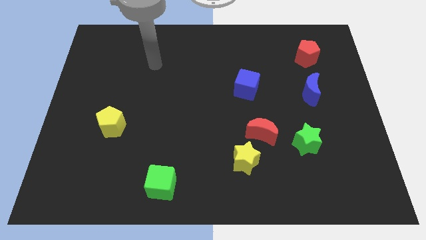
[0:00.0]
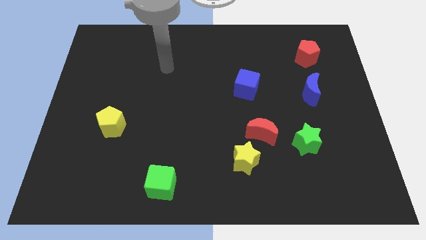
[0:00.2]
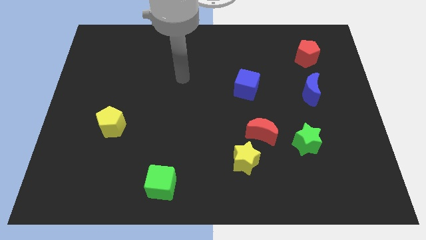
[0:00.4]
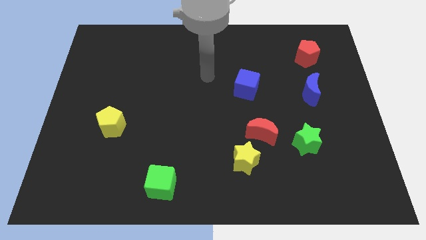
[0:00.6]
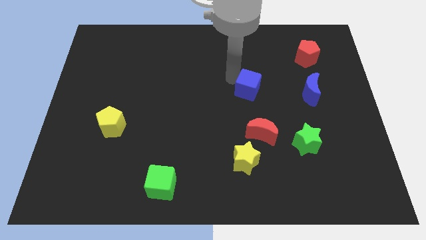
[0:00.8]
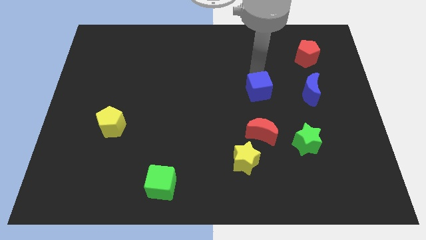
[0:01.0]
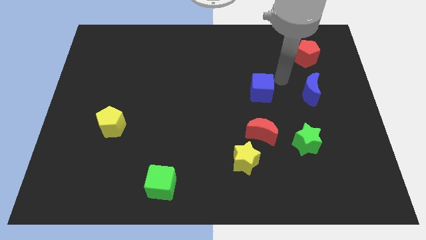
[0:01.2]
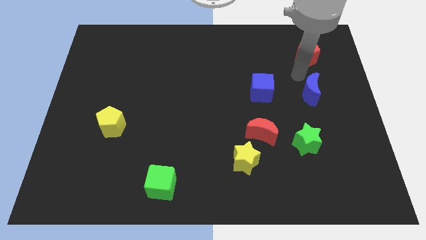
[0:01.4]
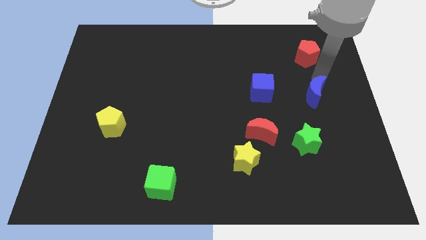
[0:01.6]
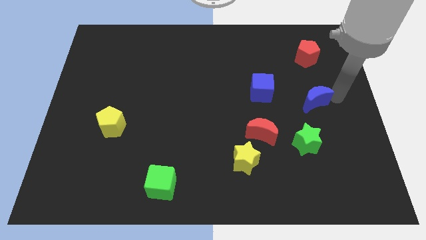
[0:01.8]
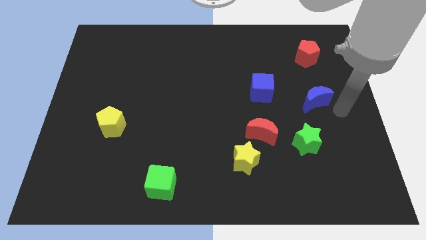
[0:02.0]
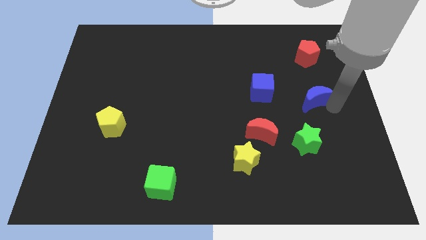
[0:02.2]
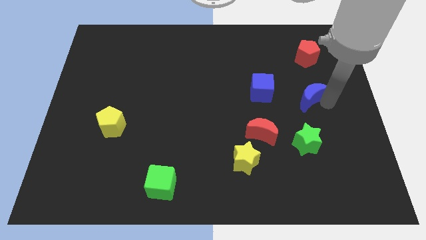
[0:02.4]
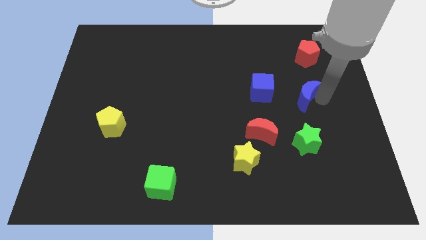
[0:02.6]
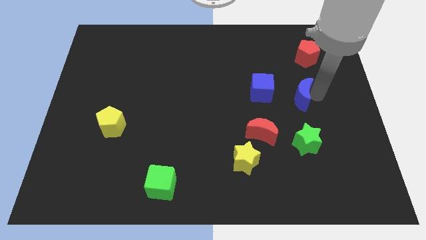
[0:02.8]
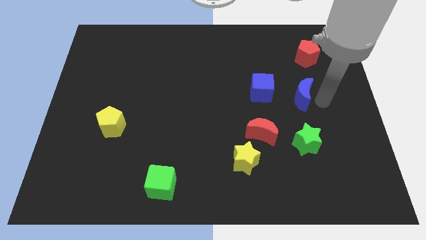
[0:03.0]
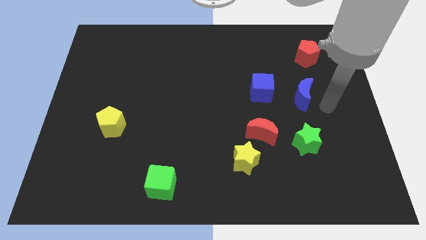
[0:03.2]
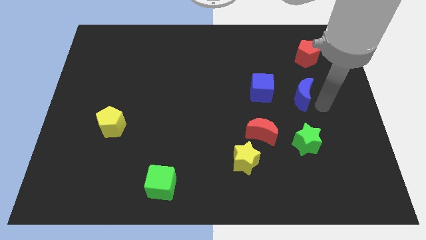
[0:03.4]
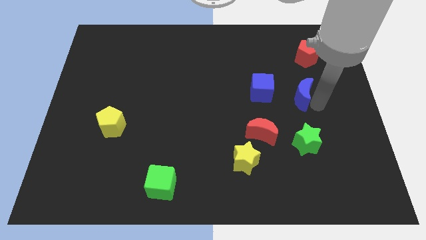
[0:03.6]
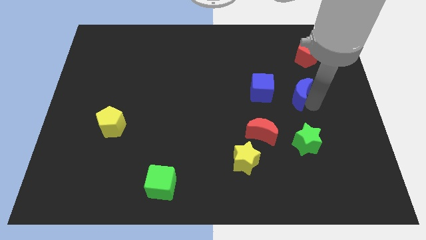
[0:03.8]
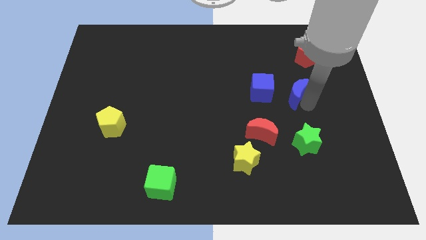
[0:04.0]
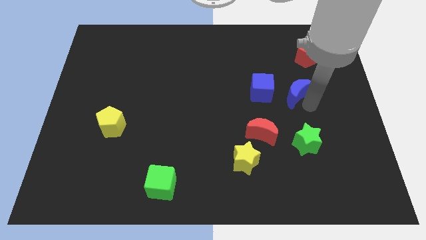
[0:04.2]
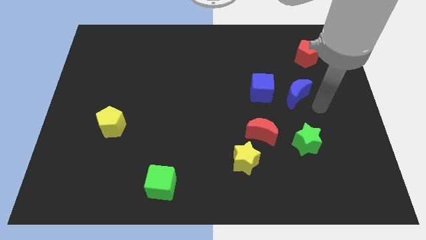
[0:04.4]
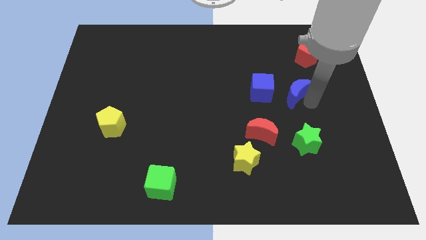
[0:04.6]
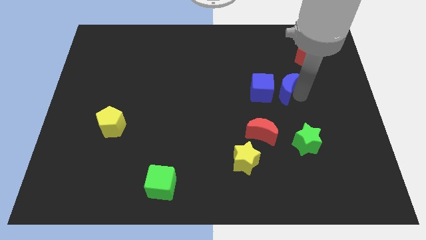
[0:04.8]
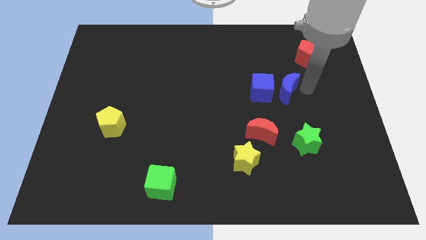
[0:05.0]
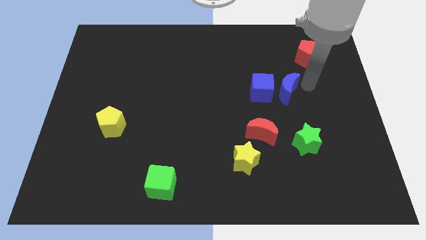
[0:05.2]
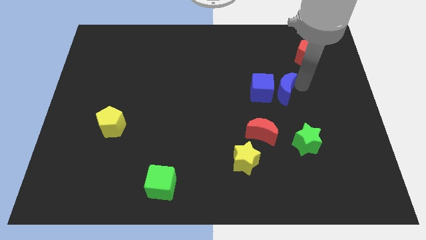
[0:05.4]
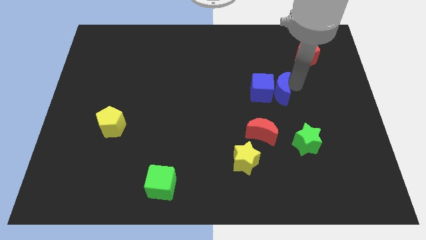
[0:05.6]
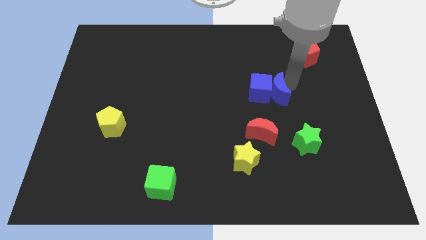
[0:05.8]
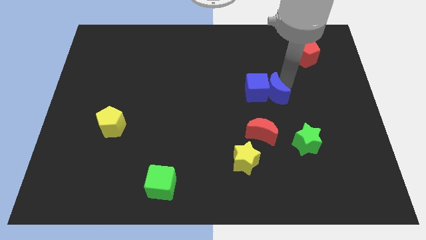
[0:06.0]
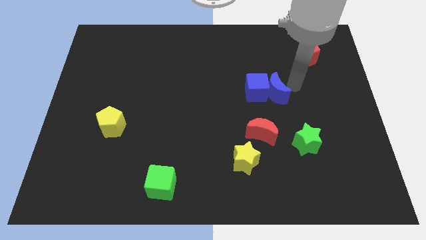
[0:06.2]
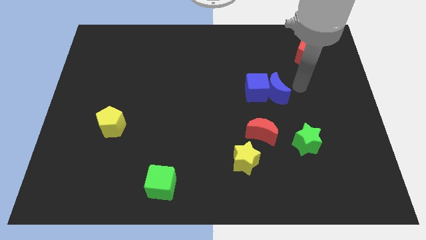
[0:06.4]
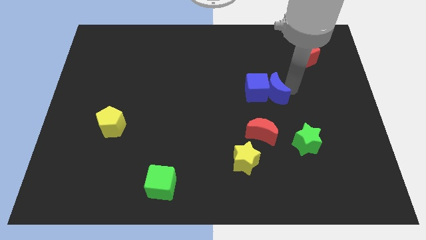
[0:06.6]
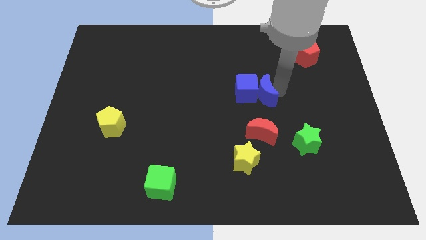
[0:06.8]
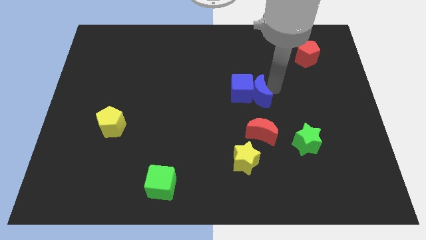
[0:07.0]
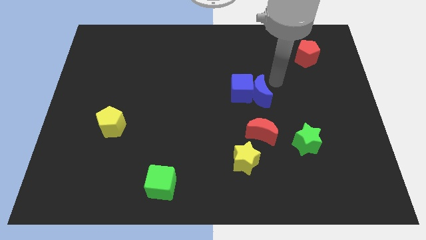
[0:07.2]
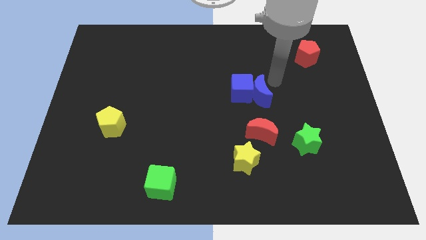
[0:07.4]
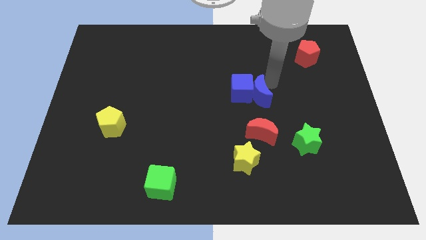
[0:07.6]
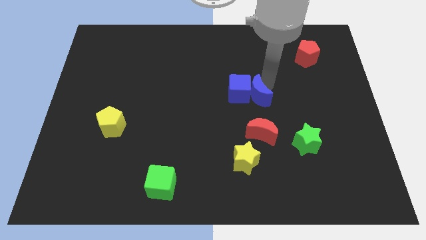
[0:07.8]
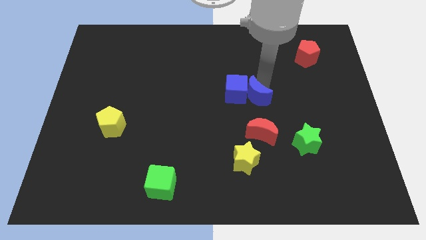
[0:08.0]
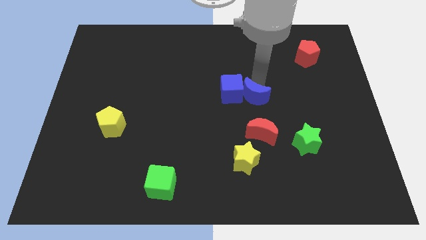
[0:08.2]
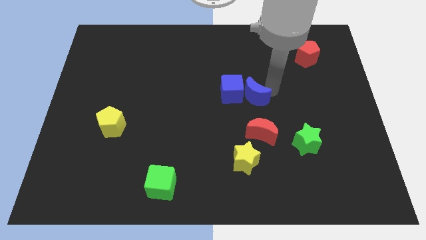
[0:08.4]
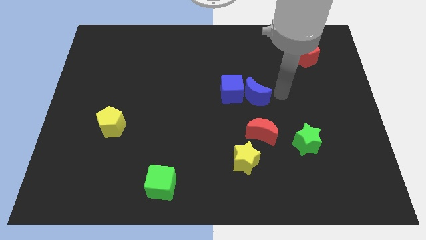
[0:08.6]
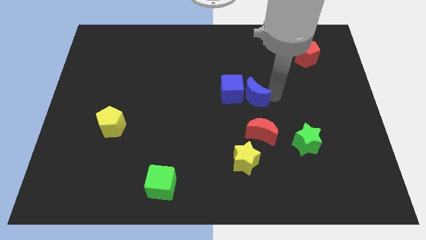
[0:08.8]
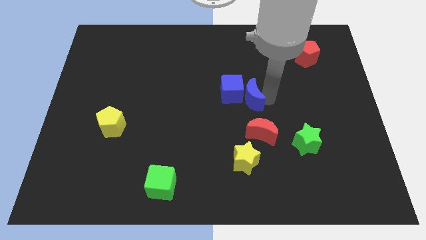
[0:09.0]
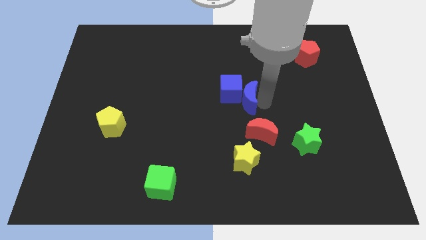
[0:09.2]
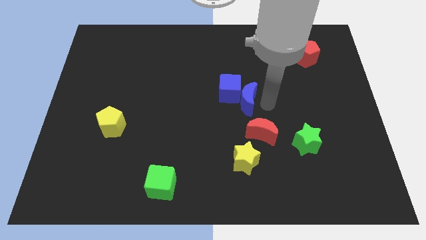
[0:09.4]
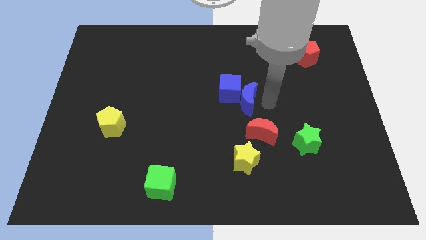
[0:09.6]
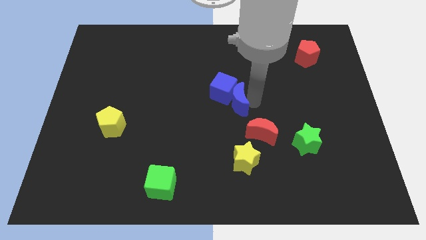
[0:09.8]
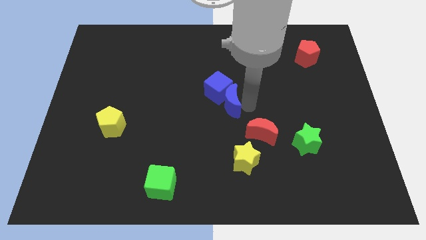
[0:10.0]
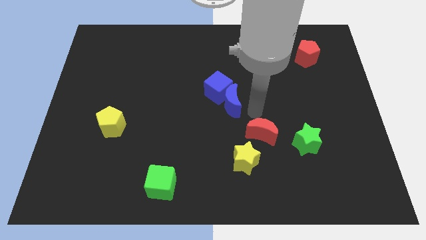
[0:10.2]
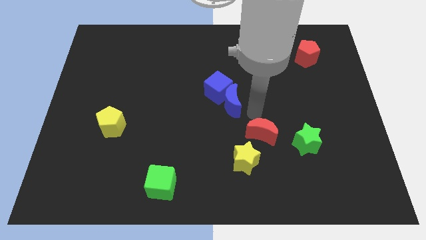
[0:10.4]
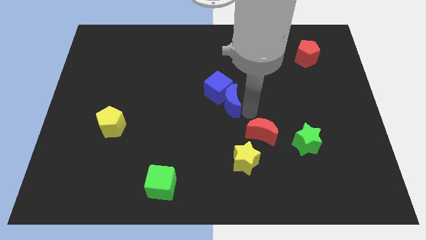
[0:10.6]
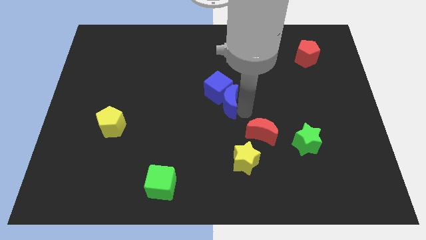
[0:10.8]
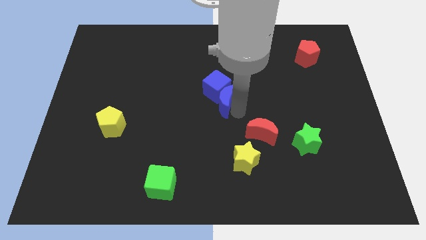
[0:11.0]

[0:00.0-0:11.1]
push the blue moon to the left

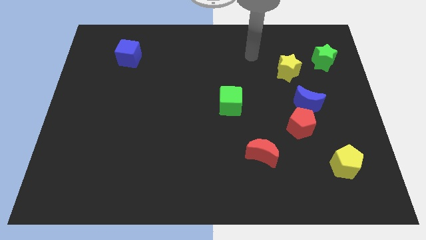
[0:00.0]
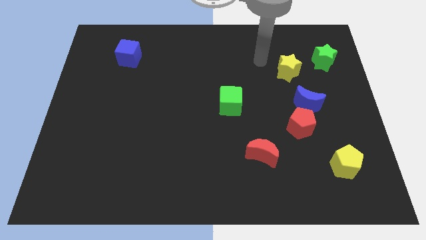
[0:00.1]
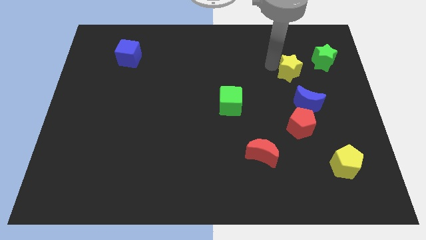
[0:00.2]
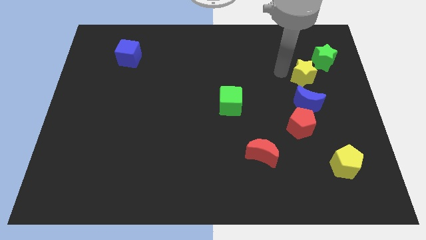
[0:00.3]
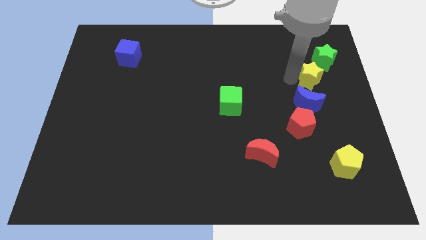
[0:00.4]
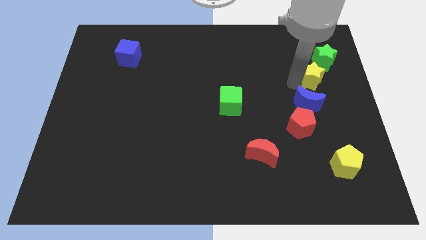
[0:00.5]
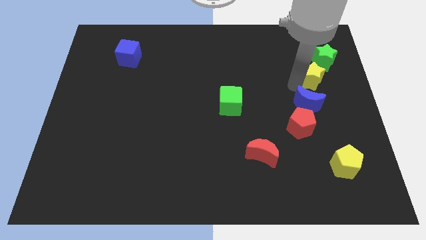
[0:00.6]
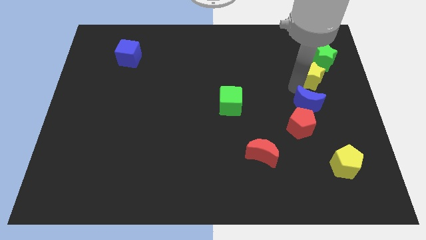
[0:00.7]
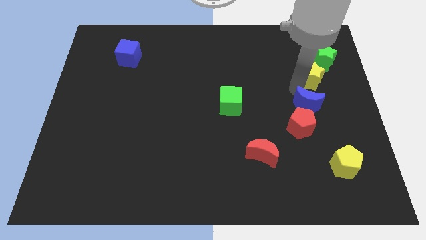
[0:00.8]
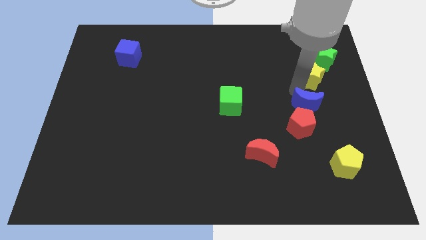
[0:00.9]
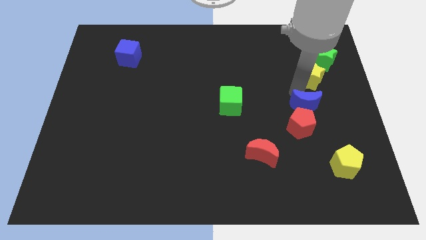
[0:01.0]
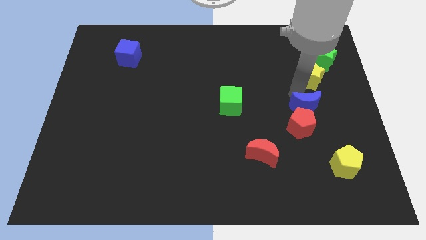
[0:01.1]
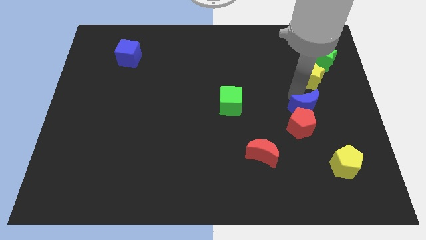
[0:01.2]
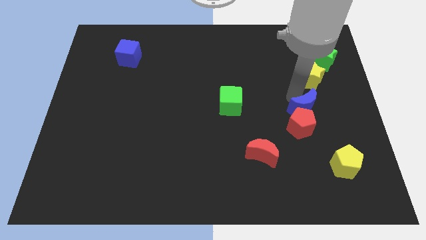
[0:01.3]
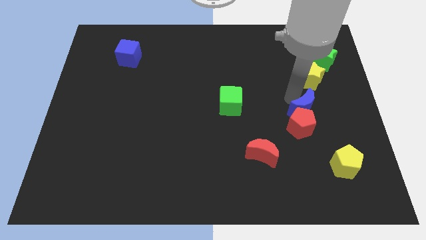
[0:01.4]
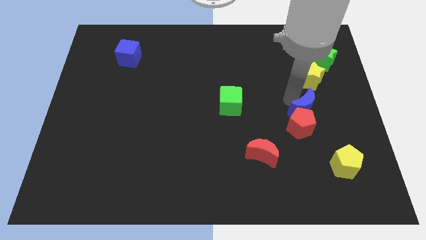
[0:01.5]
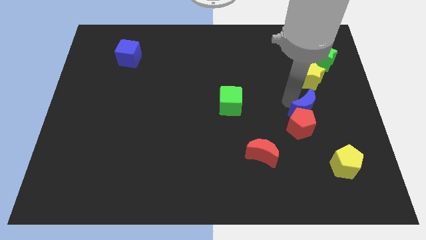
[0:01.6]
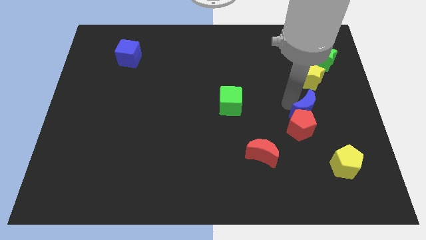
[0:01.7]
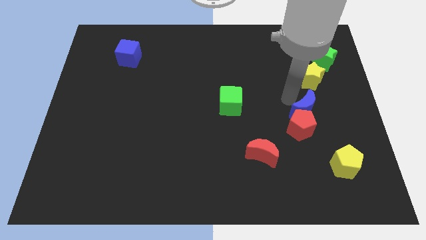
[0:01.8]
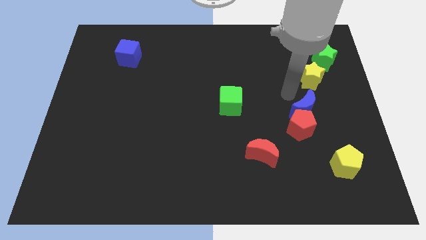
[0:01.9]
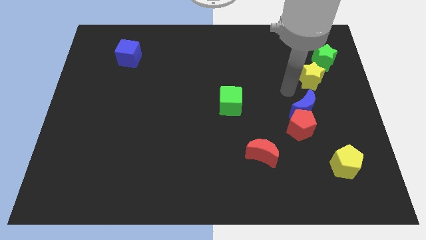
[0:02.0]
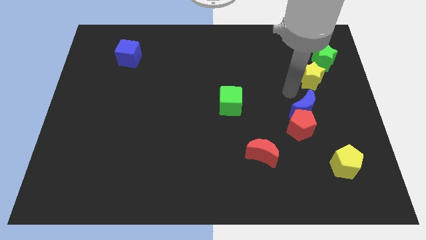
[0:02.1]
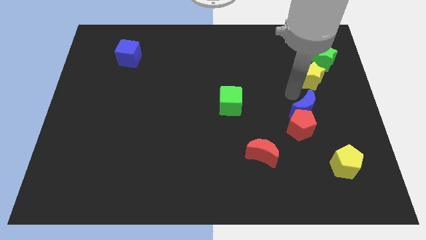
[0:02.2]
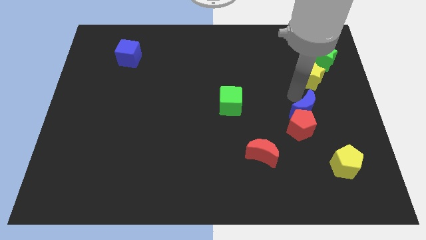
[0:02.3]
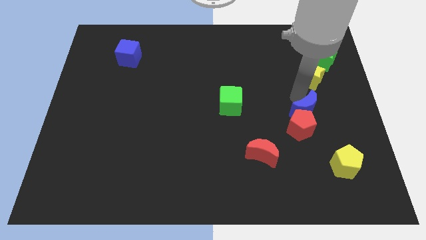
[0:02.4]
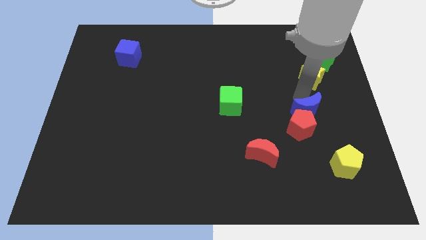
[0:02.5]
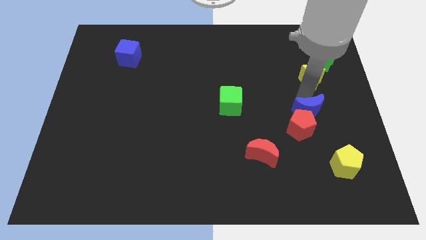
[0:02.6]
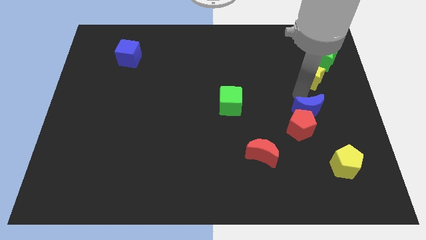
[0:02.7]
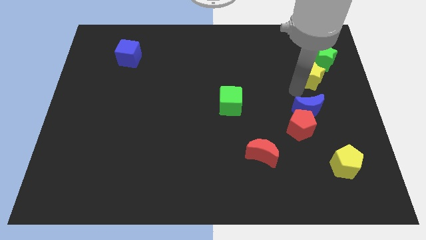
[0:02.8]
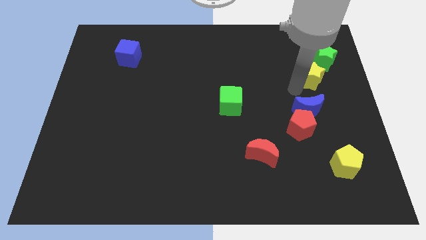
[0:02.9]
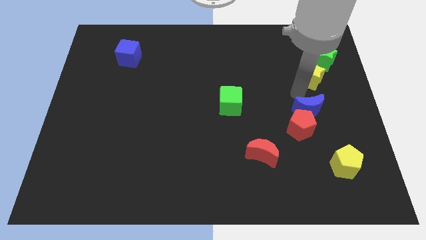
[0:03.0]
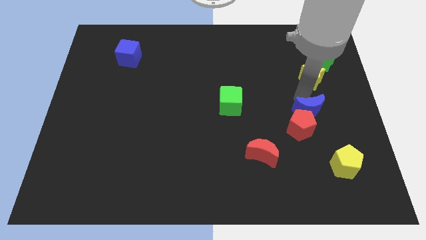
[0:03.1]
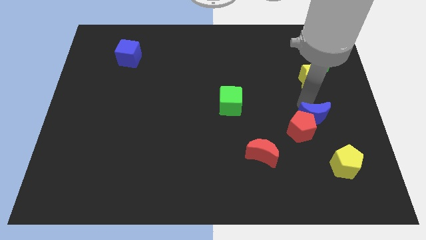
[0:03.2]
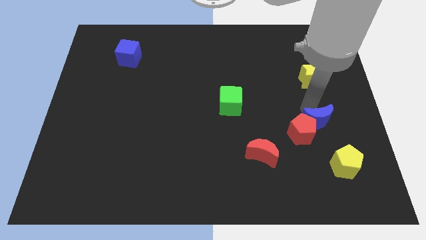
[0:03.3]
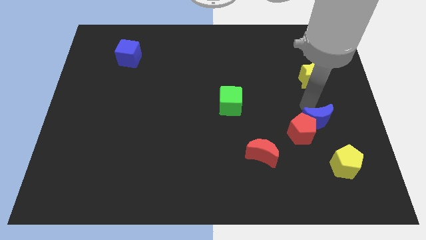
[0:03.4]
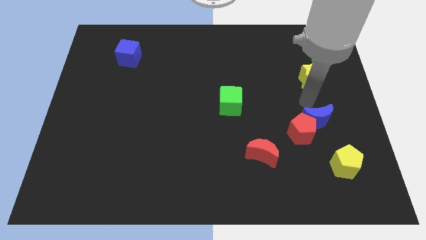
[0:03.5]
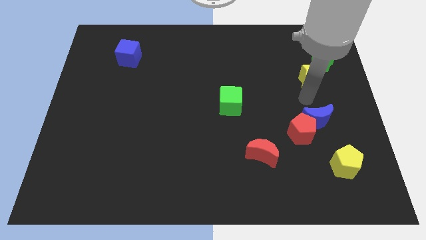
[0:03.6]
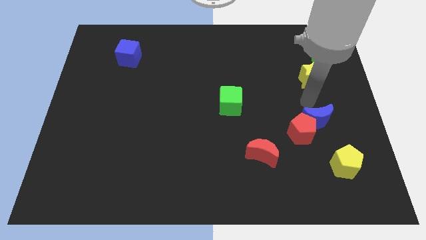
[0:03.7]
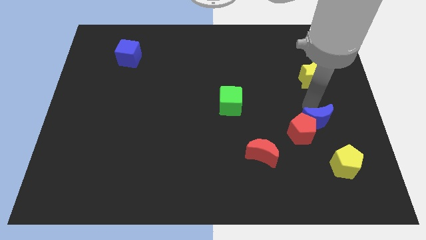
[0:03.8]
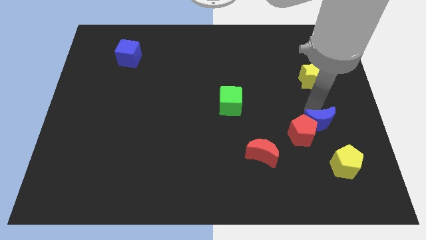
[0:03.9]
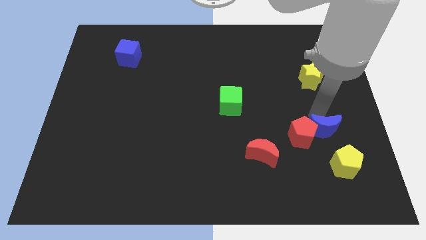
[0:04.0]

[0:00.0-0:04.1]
slide the blue moon downwards a little bit
